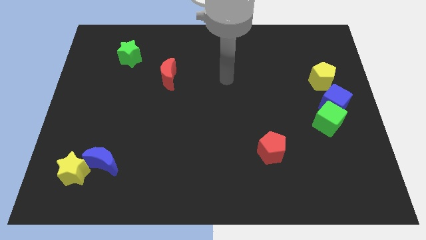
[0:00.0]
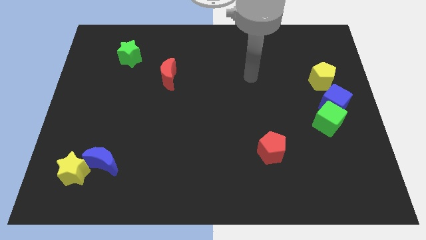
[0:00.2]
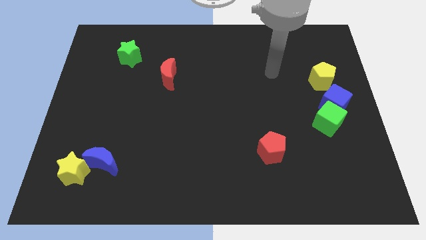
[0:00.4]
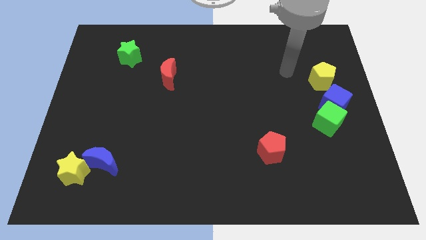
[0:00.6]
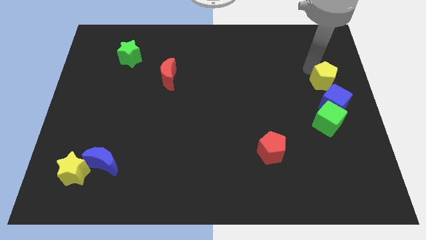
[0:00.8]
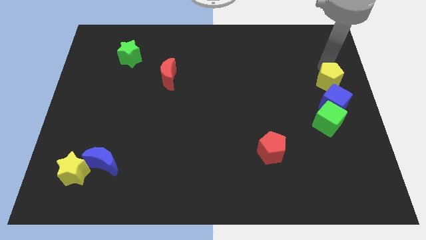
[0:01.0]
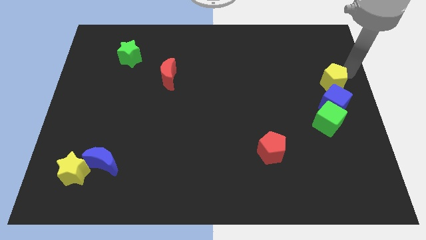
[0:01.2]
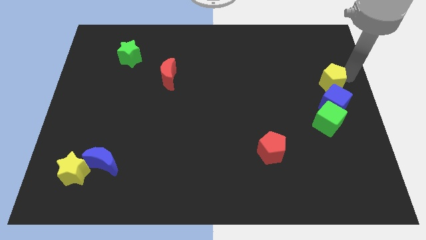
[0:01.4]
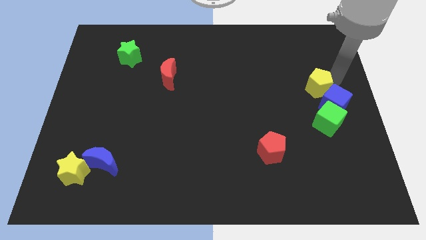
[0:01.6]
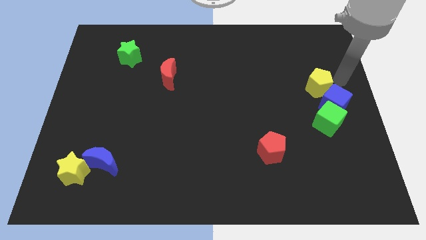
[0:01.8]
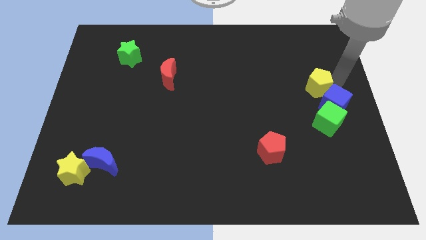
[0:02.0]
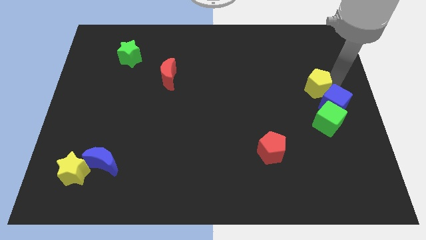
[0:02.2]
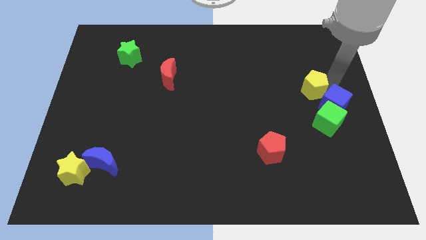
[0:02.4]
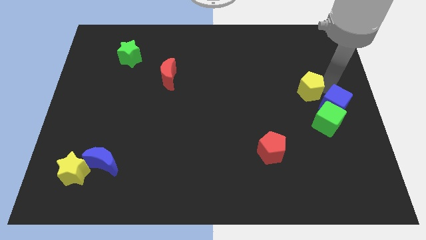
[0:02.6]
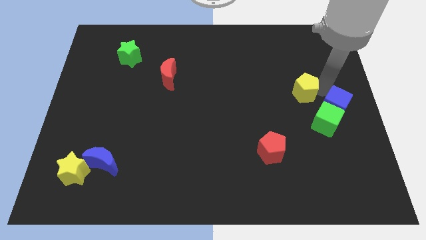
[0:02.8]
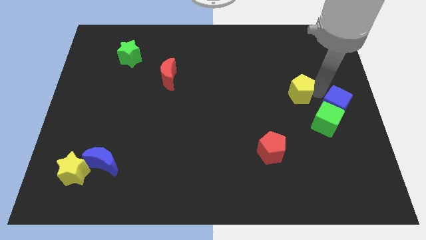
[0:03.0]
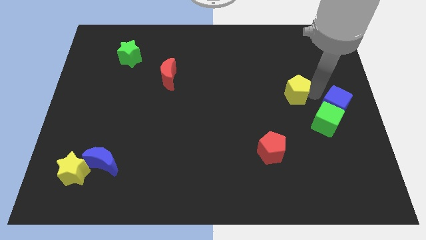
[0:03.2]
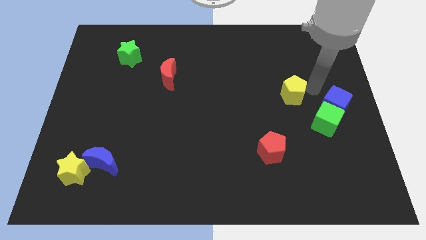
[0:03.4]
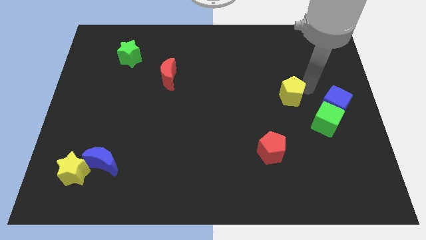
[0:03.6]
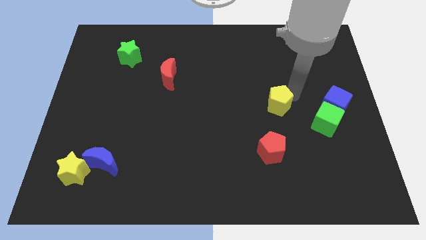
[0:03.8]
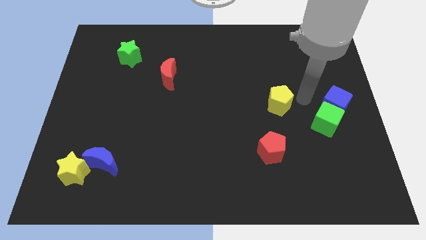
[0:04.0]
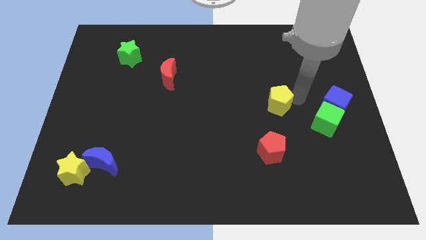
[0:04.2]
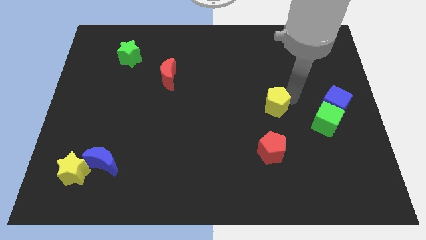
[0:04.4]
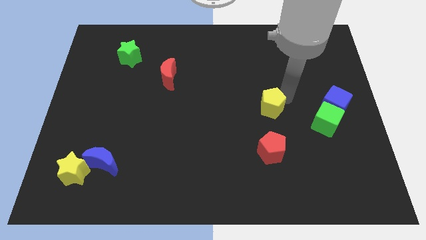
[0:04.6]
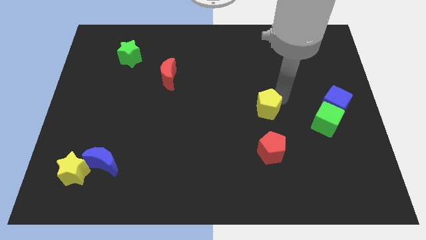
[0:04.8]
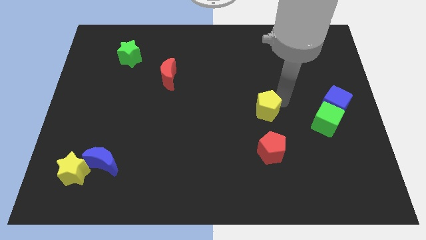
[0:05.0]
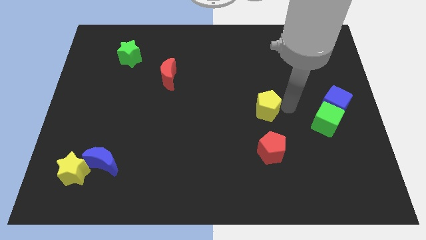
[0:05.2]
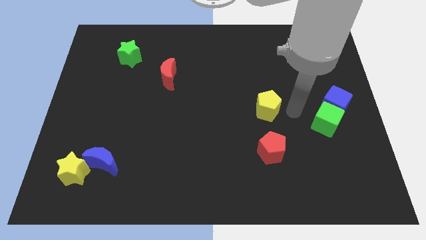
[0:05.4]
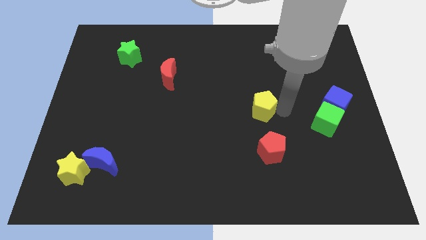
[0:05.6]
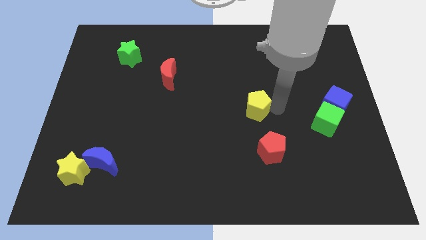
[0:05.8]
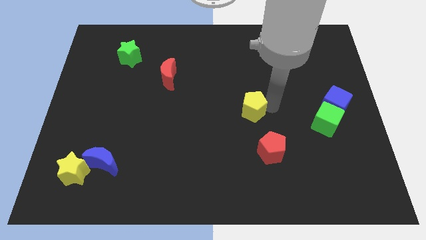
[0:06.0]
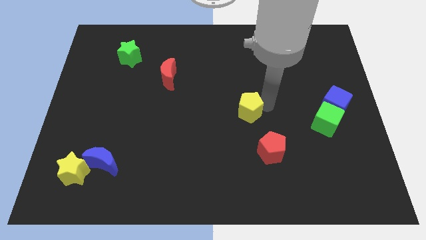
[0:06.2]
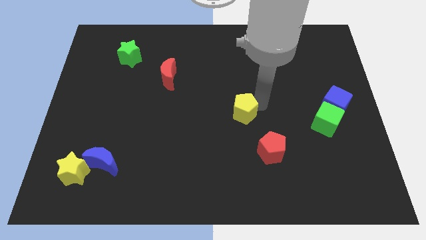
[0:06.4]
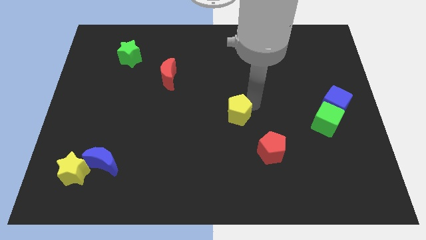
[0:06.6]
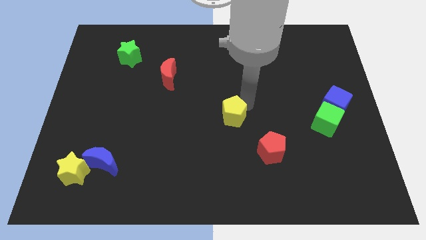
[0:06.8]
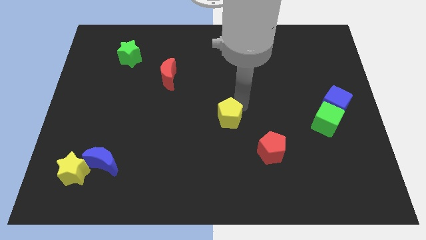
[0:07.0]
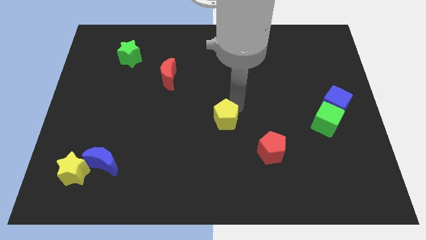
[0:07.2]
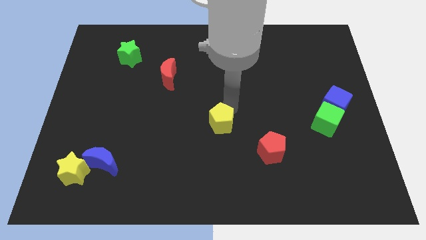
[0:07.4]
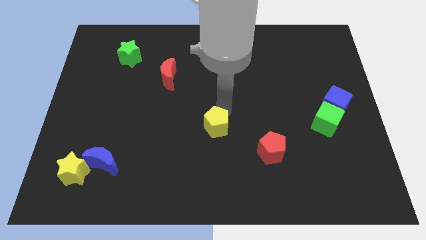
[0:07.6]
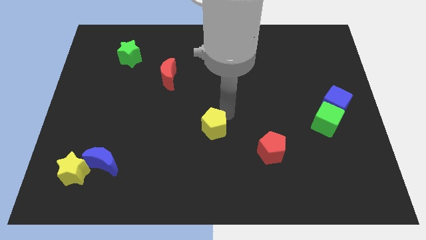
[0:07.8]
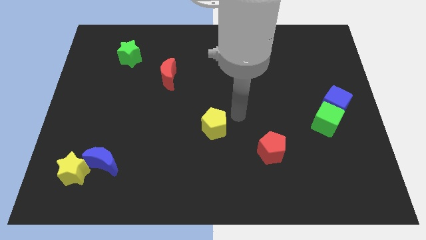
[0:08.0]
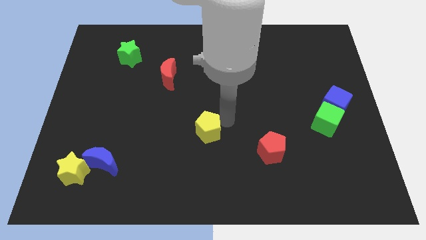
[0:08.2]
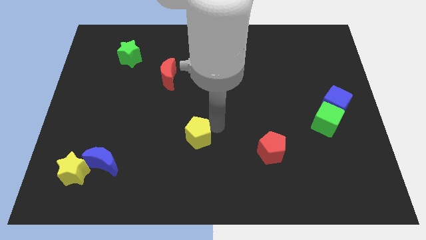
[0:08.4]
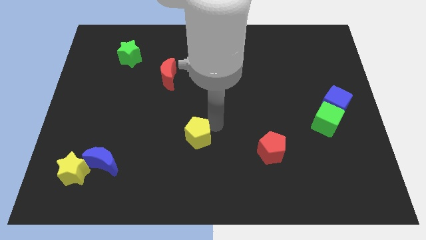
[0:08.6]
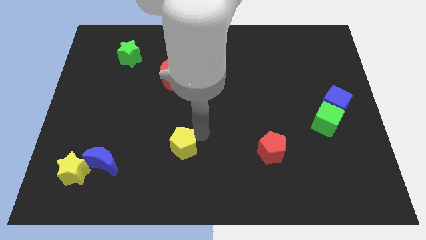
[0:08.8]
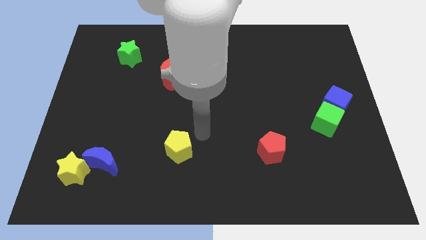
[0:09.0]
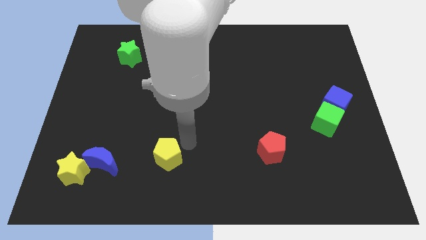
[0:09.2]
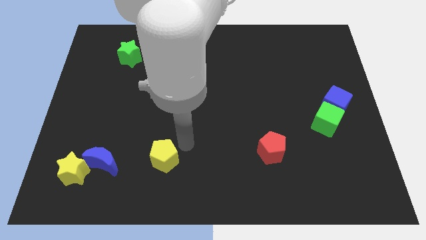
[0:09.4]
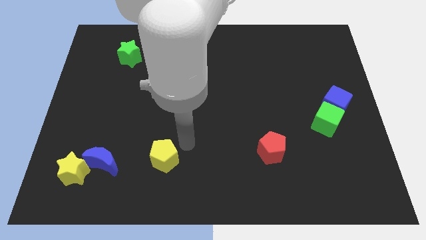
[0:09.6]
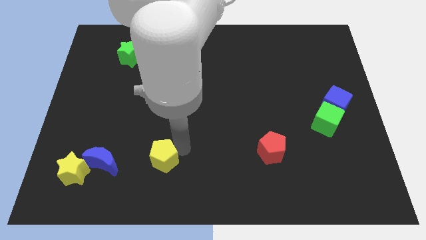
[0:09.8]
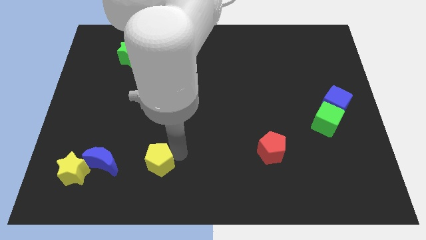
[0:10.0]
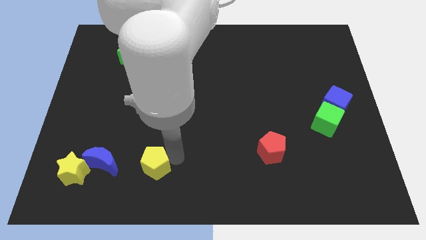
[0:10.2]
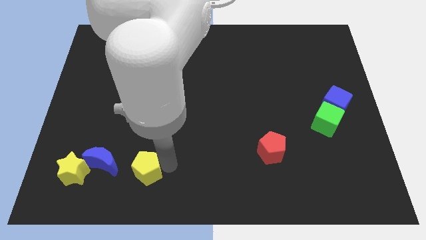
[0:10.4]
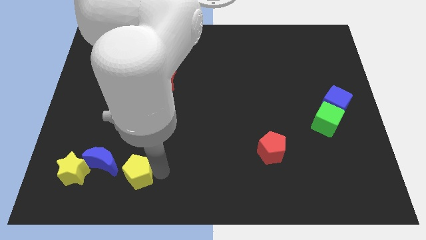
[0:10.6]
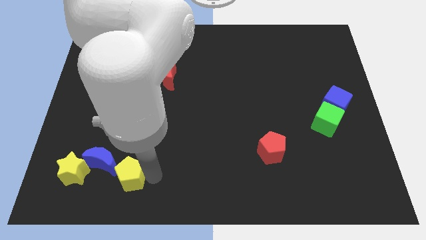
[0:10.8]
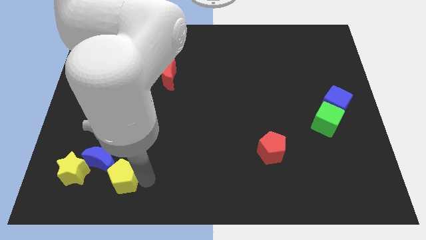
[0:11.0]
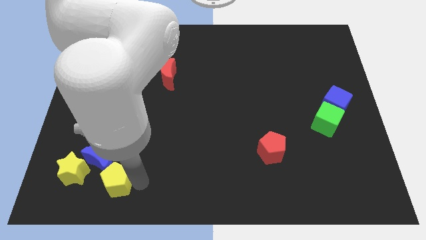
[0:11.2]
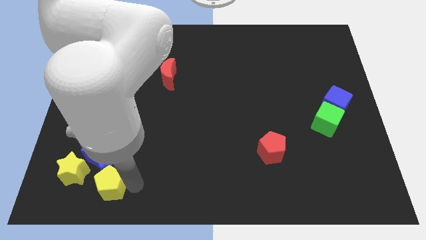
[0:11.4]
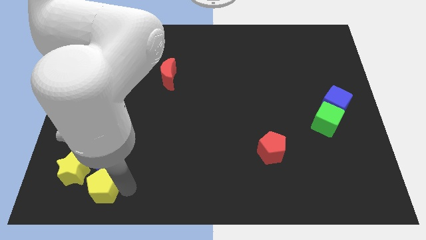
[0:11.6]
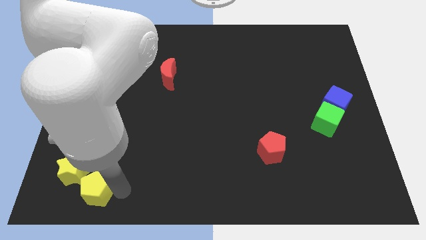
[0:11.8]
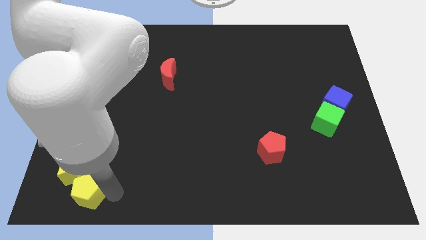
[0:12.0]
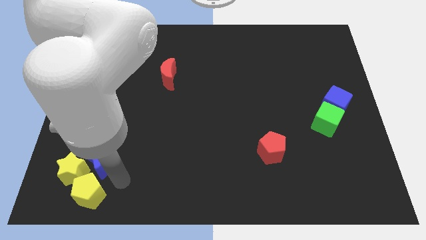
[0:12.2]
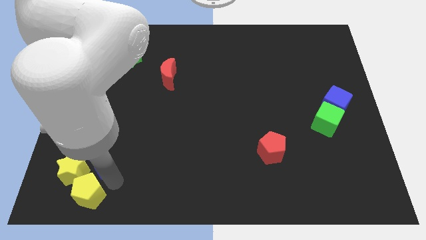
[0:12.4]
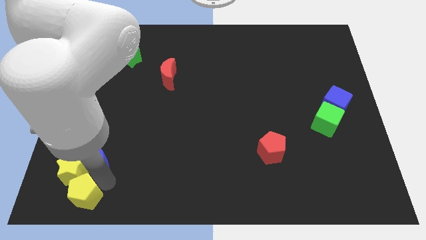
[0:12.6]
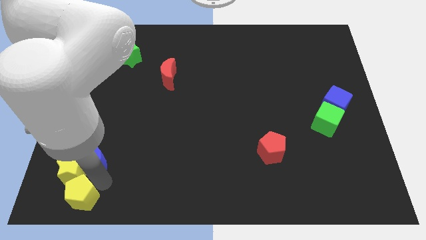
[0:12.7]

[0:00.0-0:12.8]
move the yellow pentagon to the bottom left

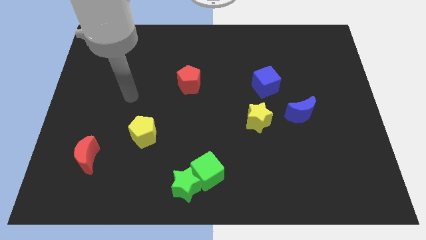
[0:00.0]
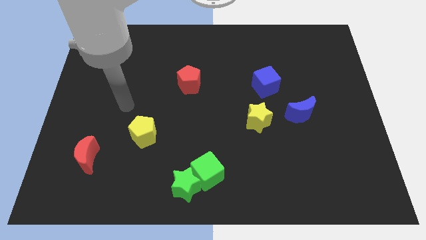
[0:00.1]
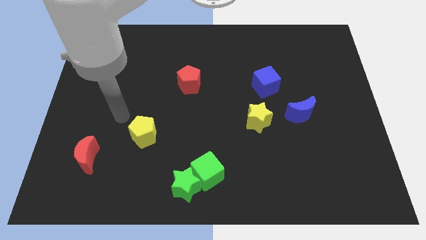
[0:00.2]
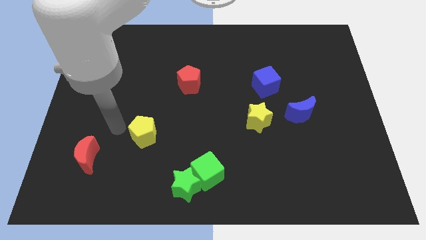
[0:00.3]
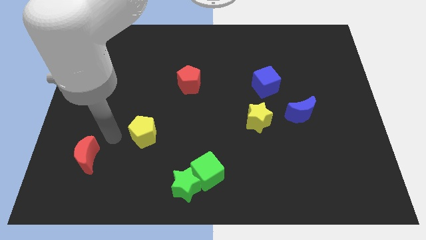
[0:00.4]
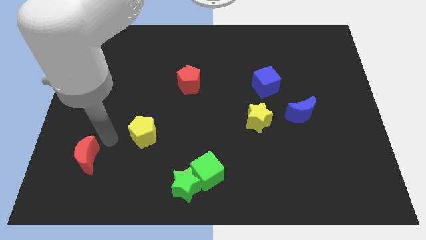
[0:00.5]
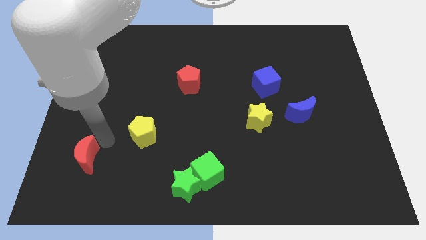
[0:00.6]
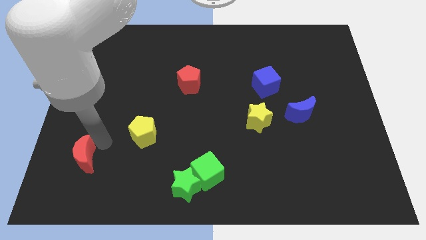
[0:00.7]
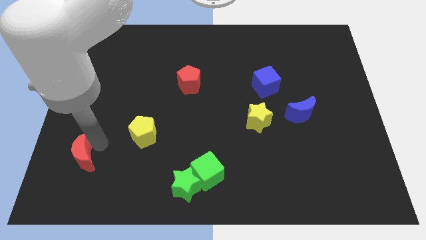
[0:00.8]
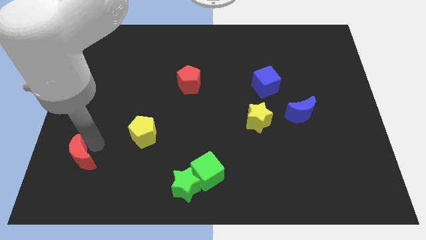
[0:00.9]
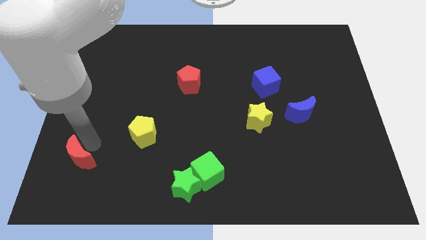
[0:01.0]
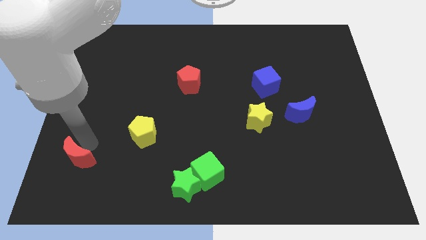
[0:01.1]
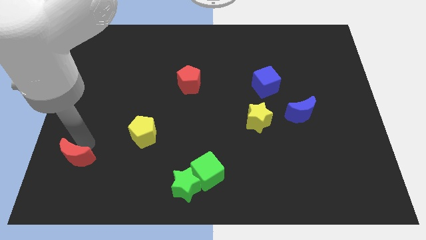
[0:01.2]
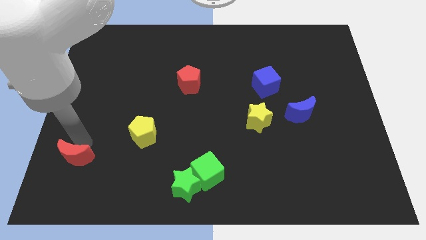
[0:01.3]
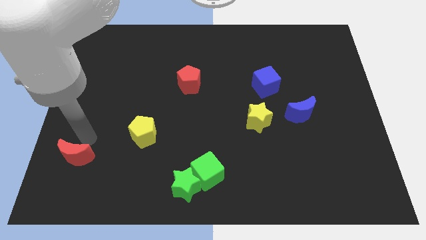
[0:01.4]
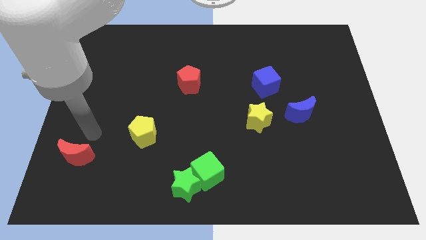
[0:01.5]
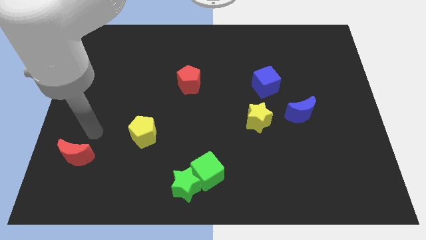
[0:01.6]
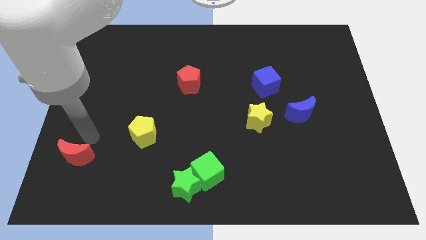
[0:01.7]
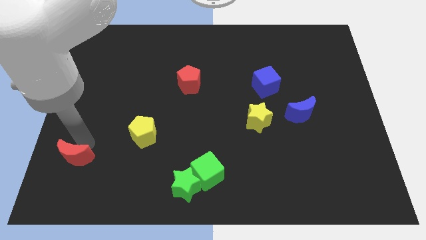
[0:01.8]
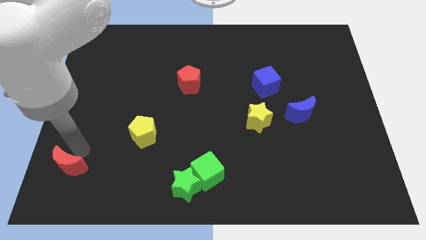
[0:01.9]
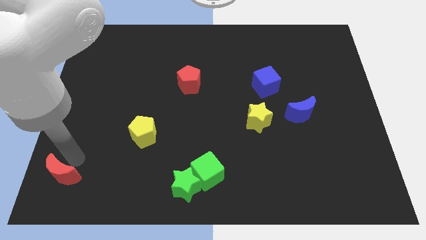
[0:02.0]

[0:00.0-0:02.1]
slide the red moon to the bottom left
